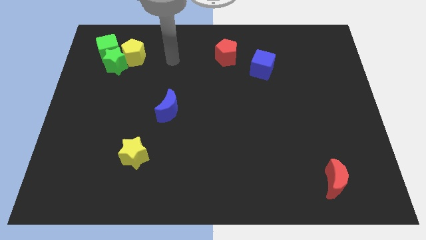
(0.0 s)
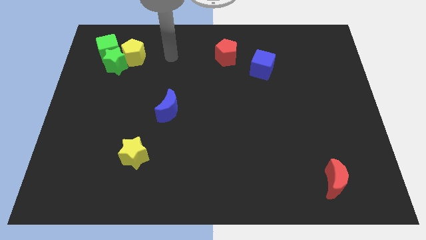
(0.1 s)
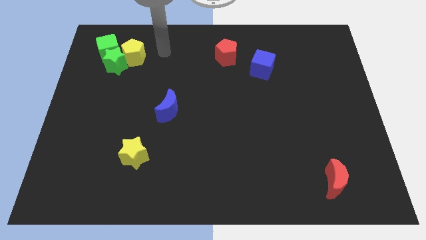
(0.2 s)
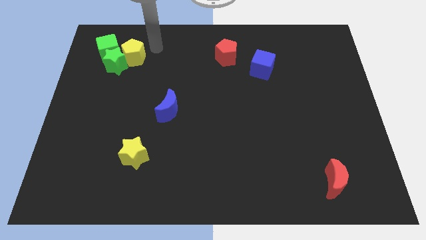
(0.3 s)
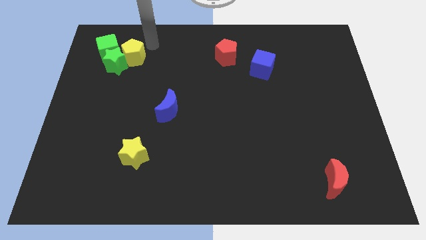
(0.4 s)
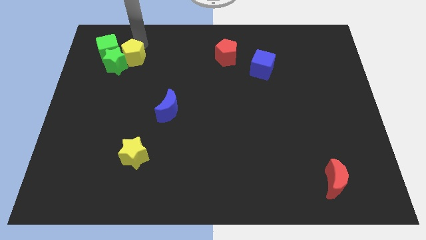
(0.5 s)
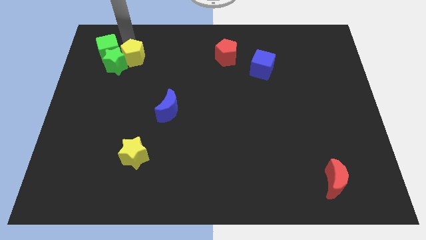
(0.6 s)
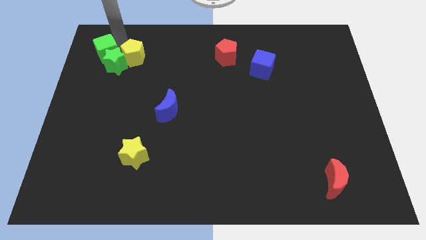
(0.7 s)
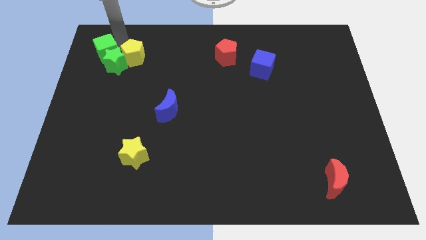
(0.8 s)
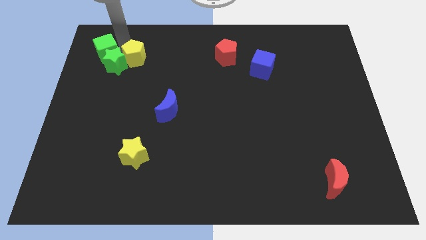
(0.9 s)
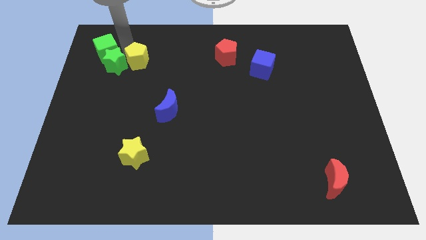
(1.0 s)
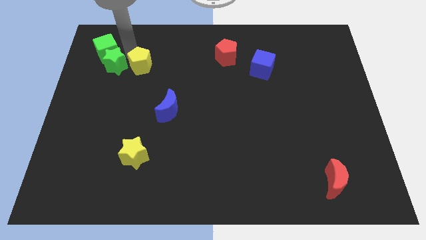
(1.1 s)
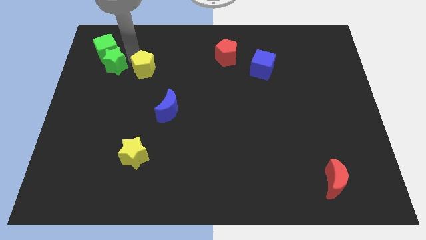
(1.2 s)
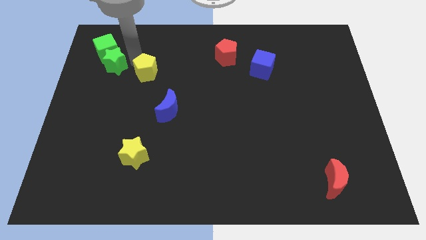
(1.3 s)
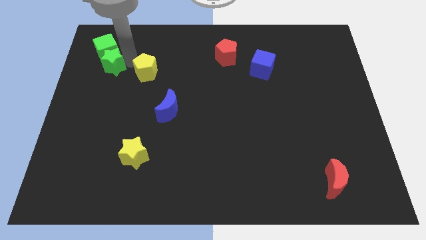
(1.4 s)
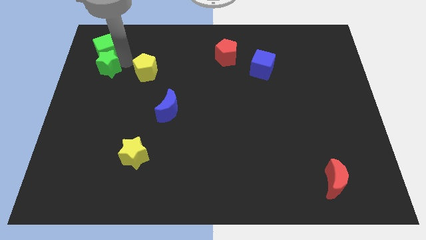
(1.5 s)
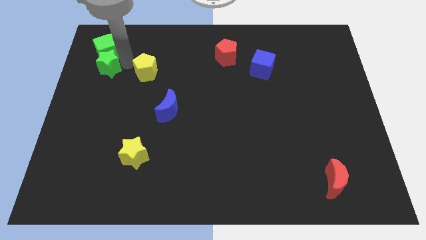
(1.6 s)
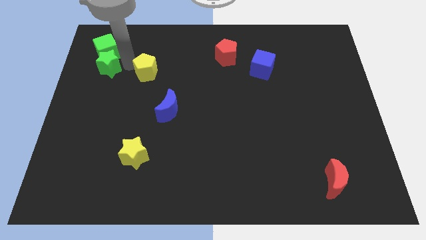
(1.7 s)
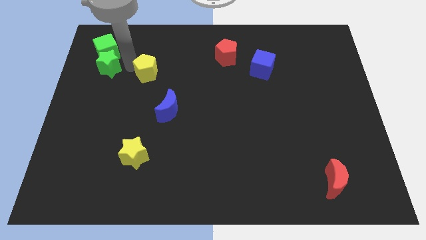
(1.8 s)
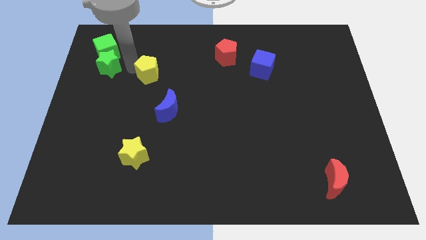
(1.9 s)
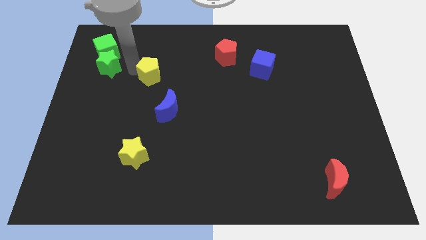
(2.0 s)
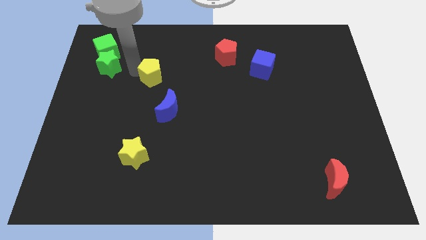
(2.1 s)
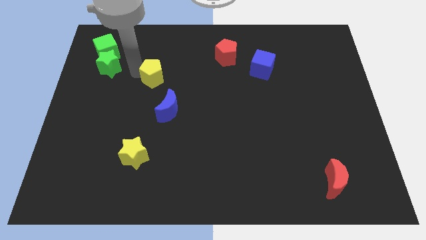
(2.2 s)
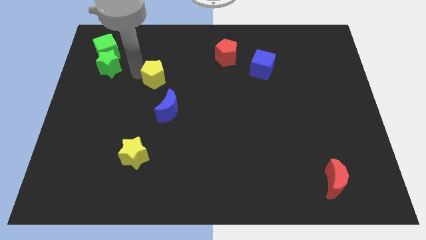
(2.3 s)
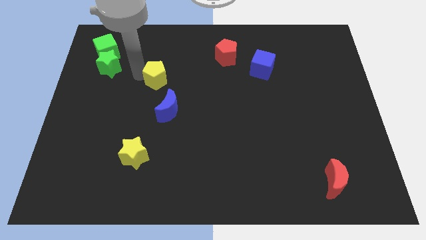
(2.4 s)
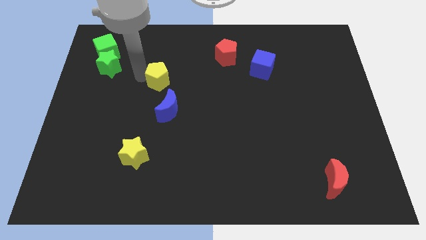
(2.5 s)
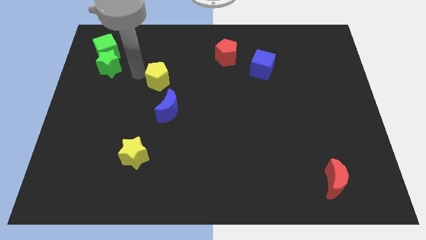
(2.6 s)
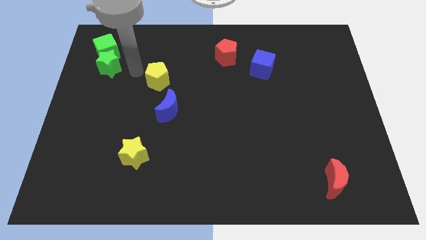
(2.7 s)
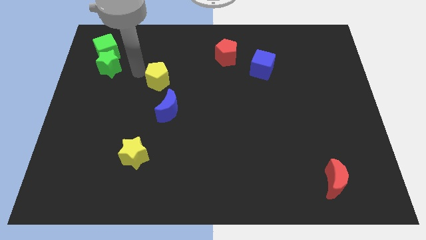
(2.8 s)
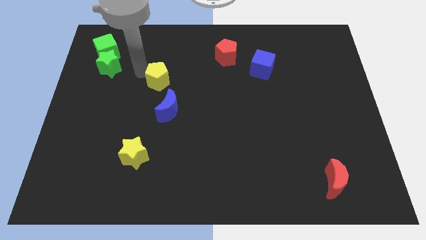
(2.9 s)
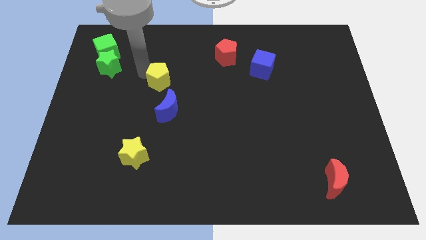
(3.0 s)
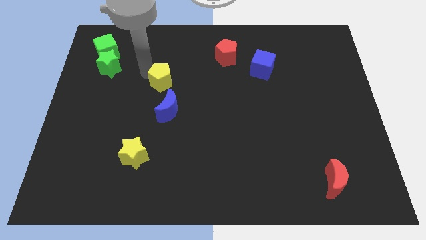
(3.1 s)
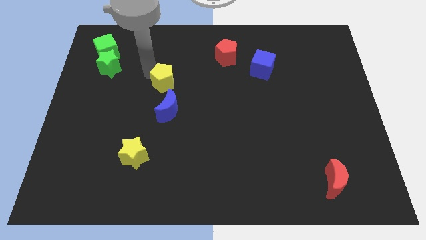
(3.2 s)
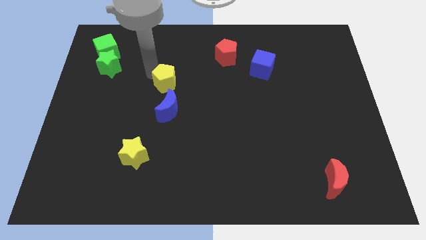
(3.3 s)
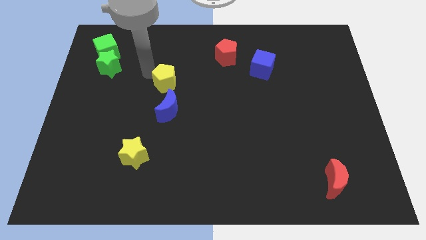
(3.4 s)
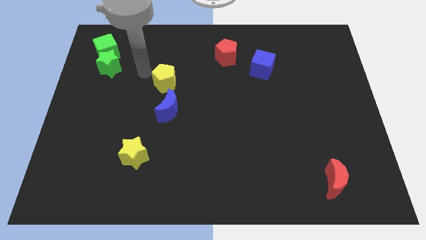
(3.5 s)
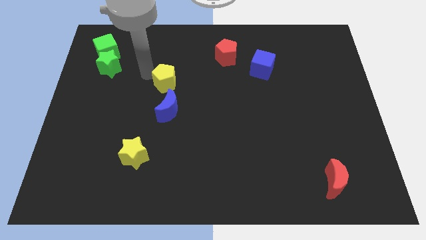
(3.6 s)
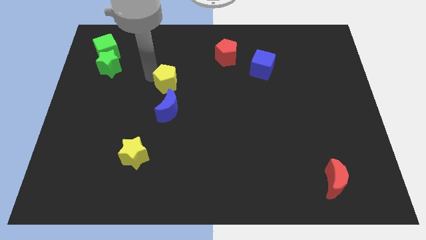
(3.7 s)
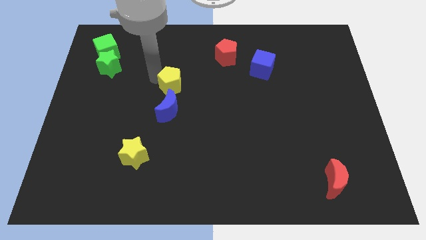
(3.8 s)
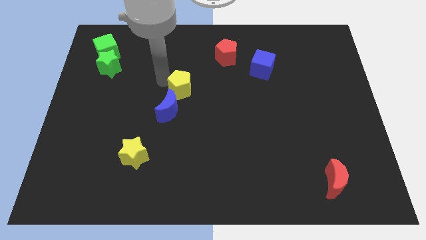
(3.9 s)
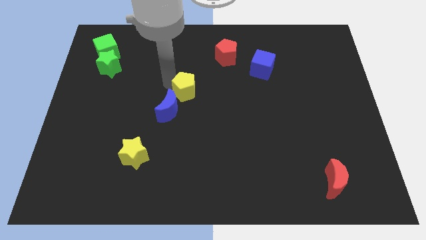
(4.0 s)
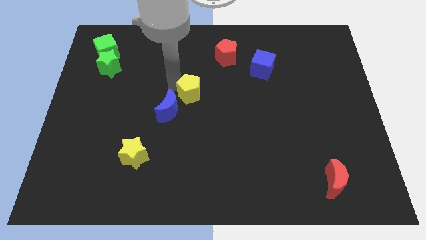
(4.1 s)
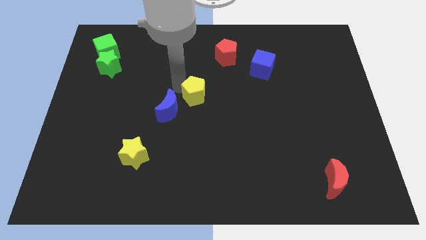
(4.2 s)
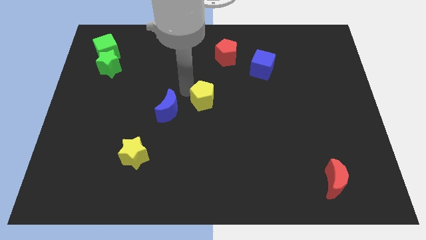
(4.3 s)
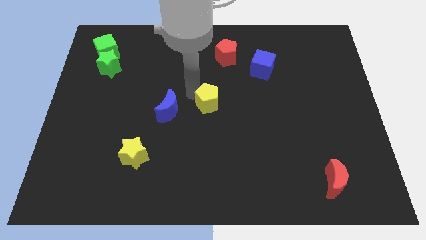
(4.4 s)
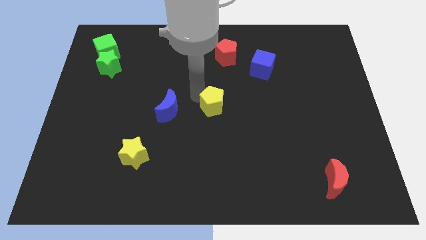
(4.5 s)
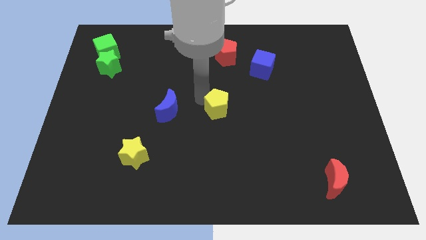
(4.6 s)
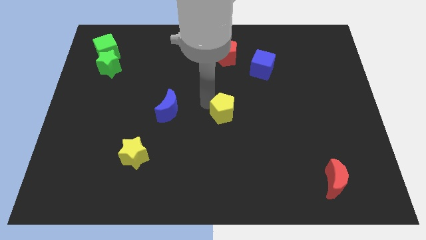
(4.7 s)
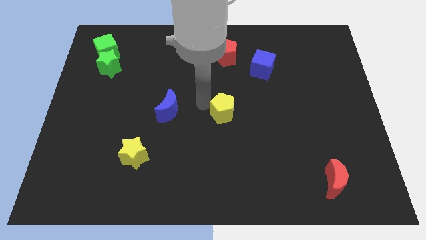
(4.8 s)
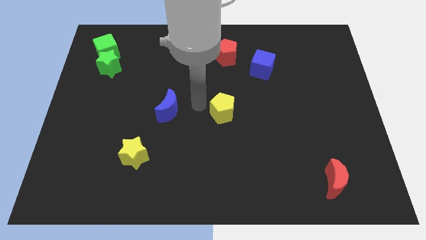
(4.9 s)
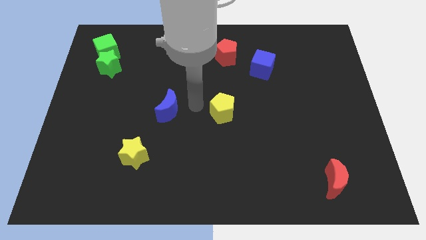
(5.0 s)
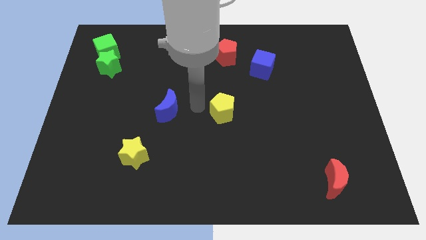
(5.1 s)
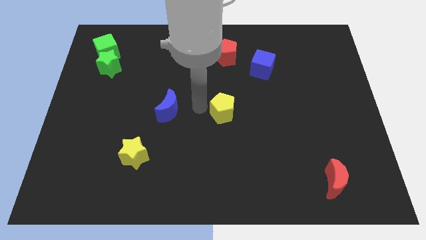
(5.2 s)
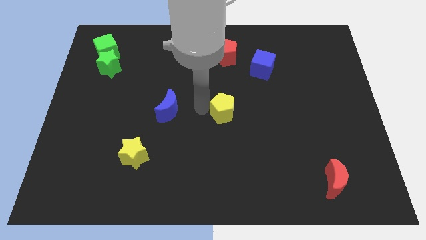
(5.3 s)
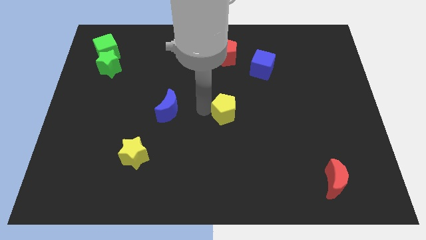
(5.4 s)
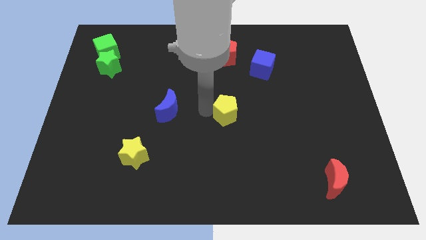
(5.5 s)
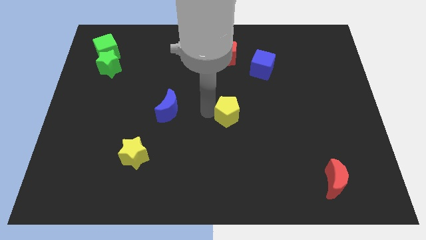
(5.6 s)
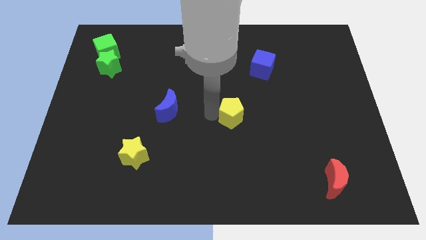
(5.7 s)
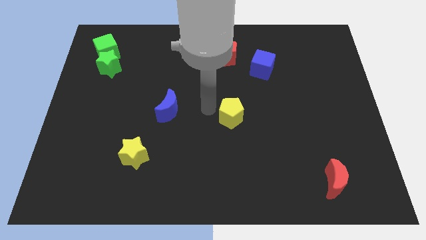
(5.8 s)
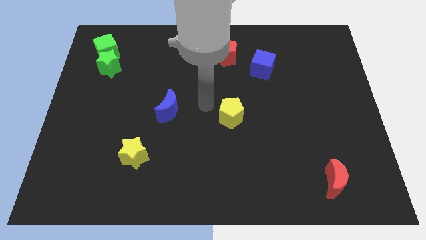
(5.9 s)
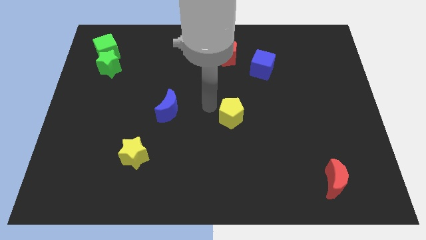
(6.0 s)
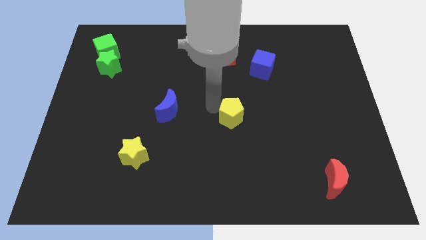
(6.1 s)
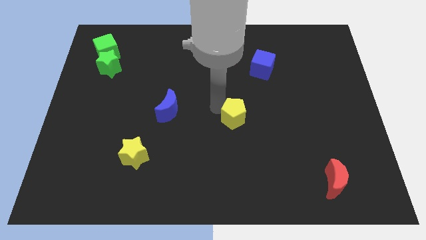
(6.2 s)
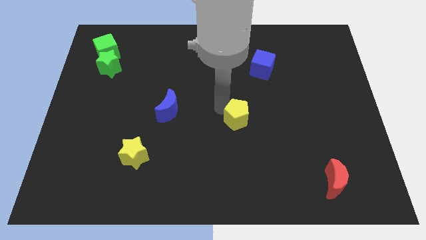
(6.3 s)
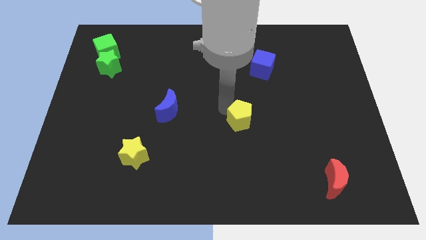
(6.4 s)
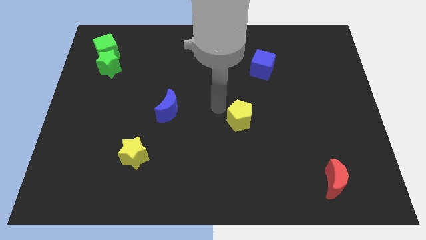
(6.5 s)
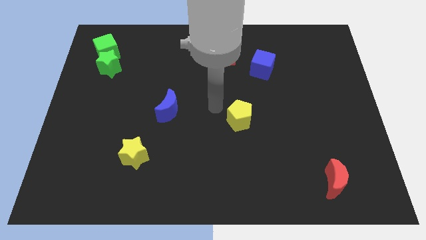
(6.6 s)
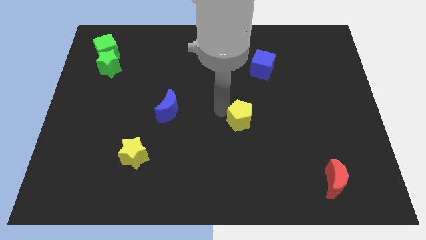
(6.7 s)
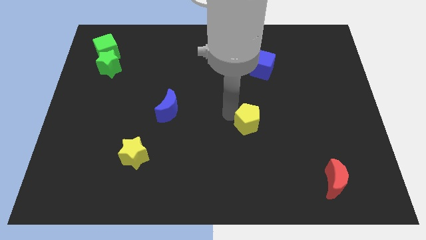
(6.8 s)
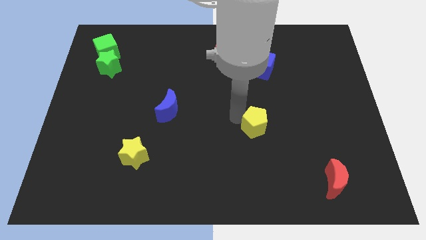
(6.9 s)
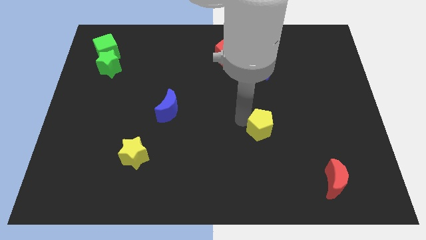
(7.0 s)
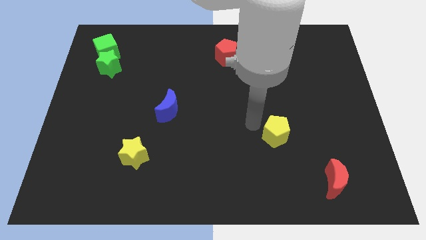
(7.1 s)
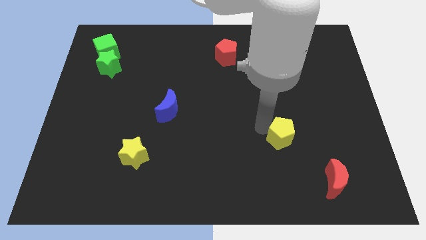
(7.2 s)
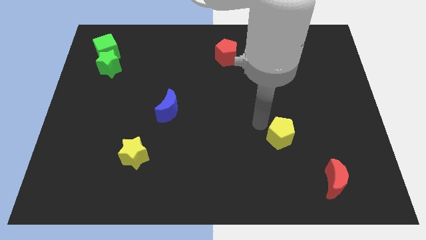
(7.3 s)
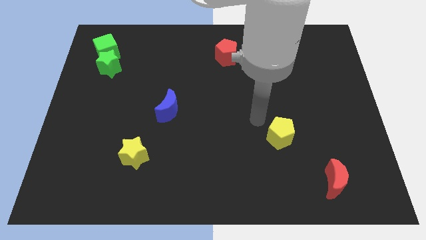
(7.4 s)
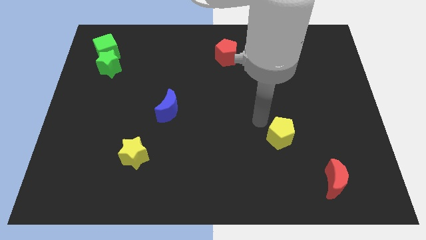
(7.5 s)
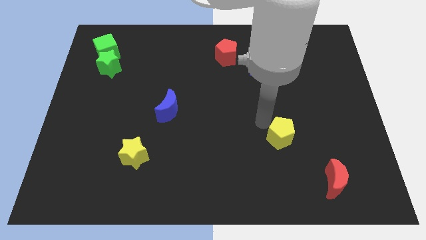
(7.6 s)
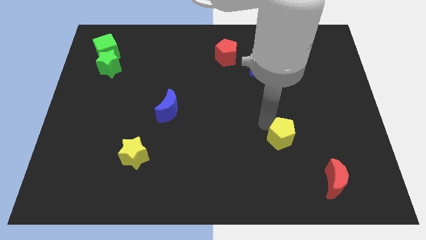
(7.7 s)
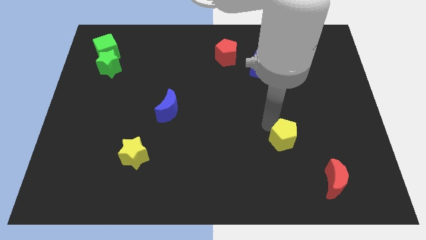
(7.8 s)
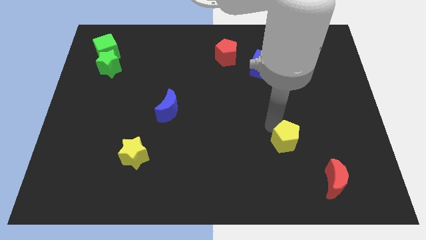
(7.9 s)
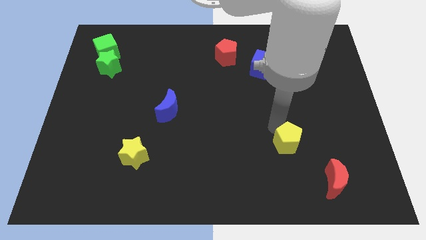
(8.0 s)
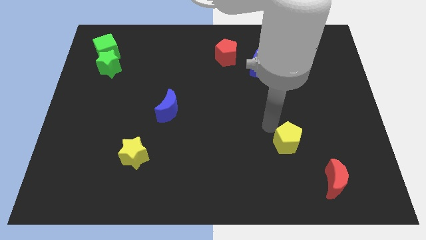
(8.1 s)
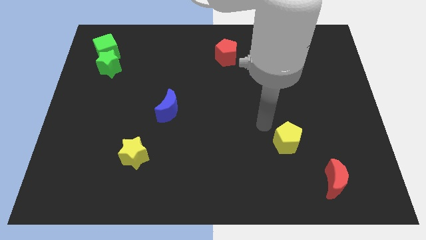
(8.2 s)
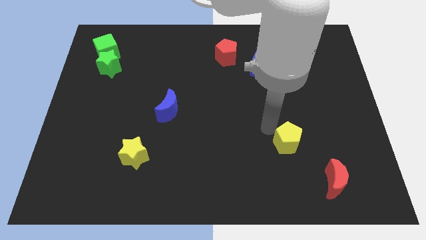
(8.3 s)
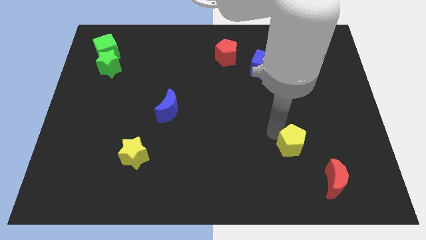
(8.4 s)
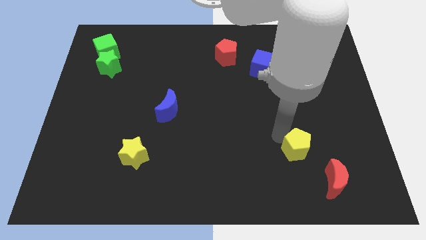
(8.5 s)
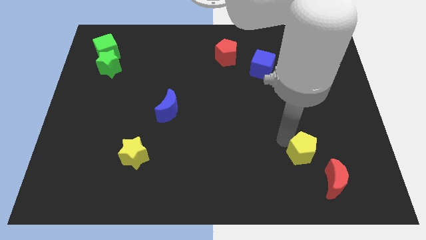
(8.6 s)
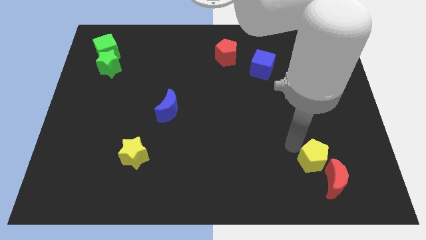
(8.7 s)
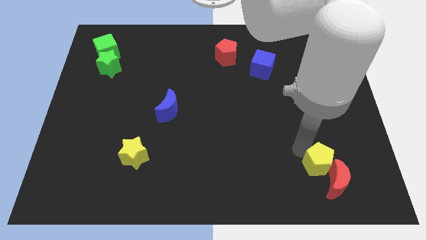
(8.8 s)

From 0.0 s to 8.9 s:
move the yellow pentagon to the red moon
